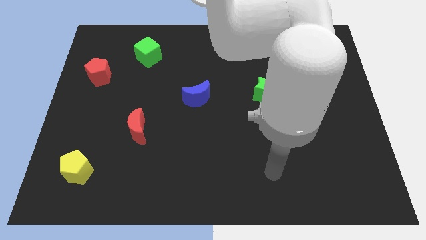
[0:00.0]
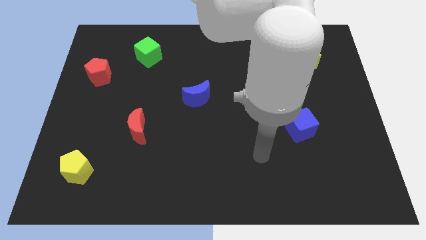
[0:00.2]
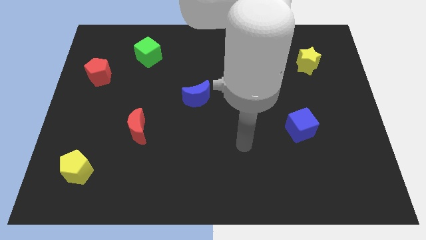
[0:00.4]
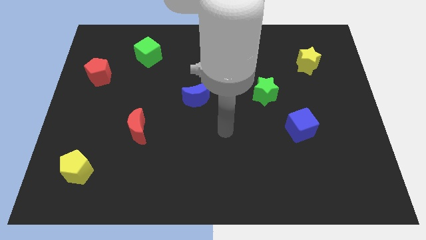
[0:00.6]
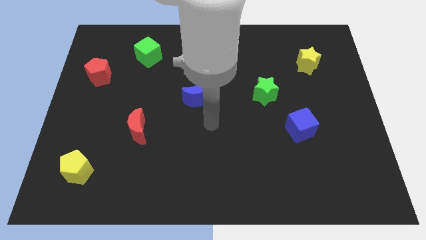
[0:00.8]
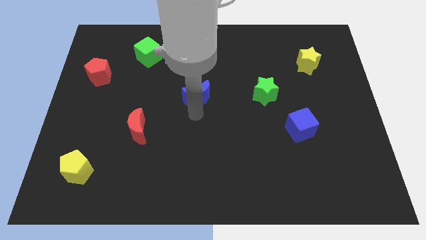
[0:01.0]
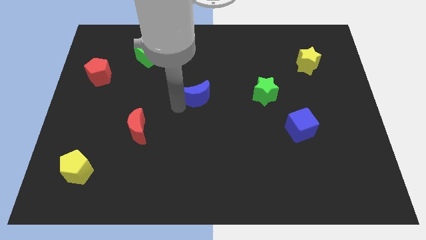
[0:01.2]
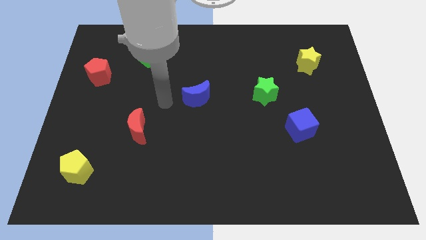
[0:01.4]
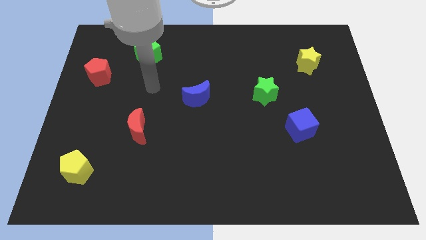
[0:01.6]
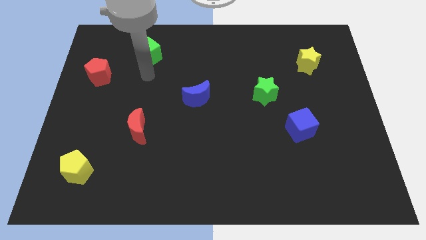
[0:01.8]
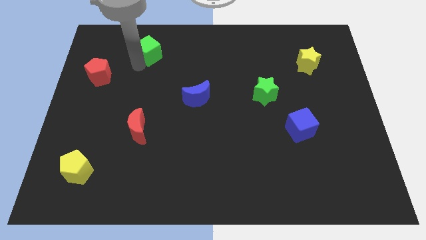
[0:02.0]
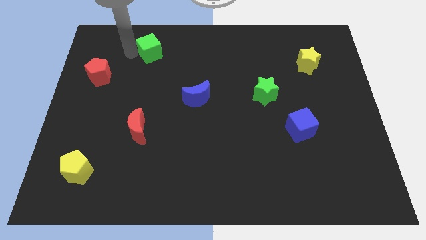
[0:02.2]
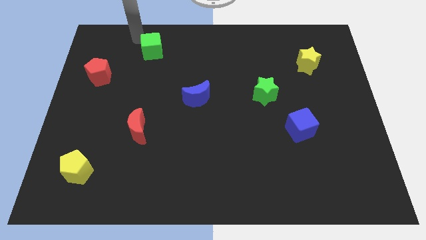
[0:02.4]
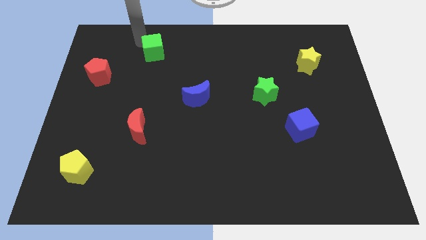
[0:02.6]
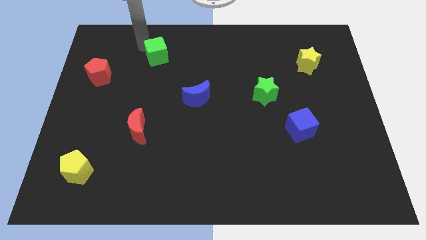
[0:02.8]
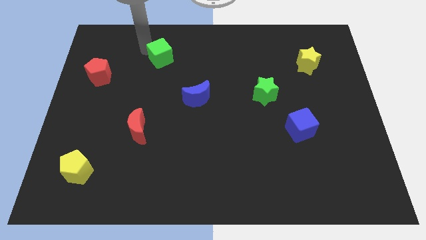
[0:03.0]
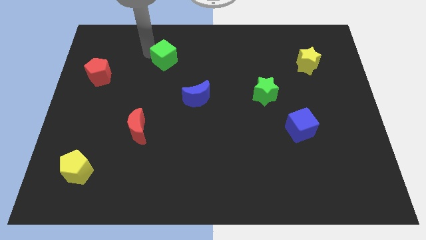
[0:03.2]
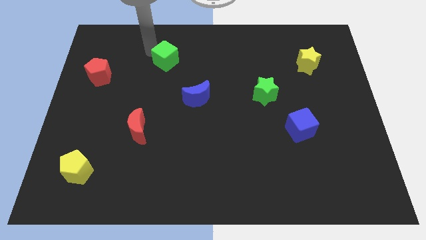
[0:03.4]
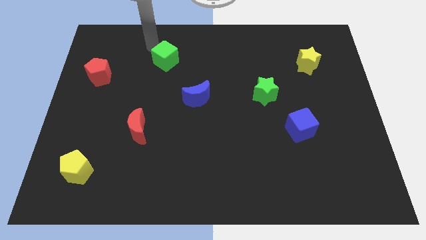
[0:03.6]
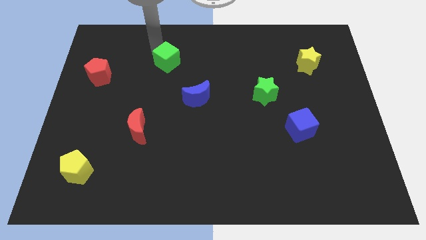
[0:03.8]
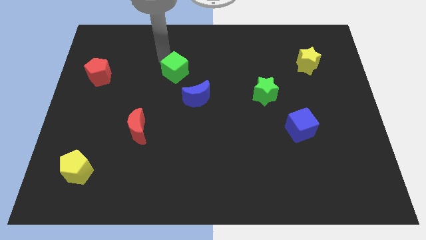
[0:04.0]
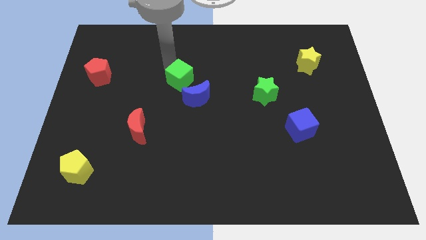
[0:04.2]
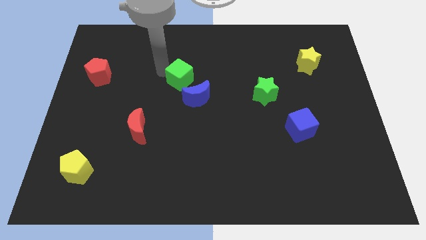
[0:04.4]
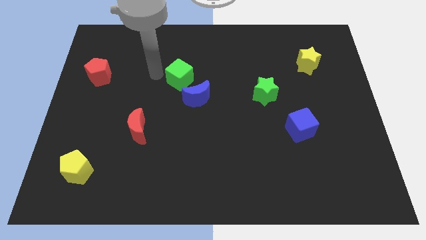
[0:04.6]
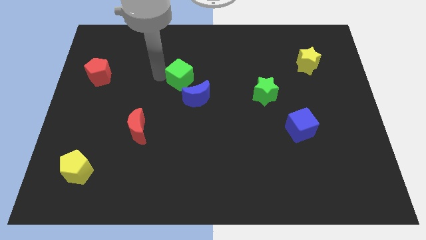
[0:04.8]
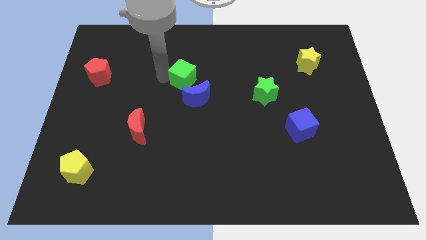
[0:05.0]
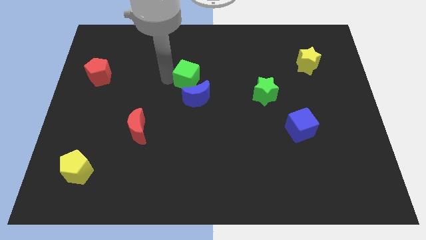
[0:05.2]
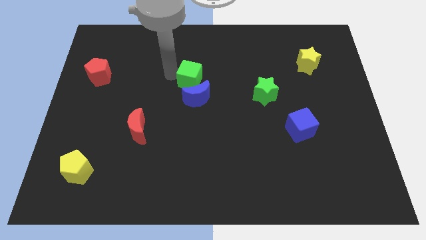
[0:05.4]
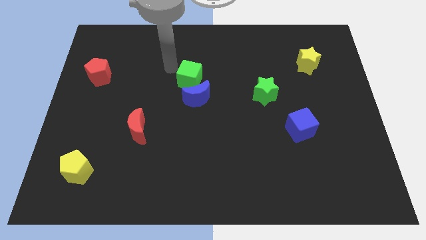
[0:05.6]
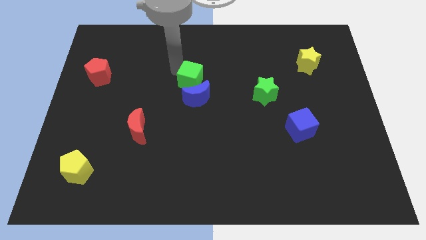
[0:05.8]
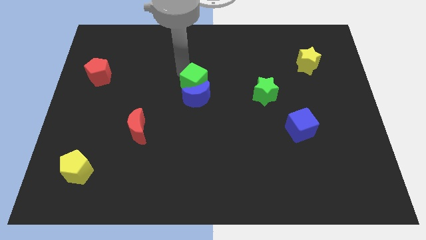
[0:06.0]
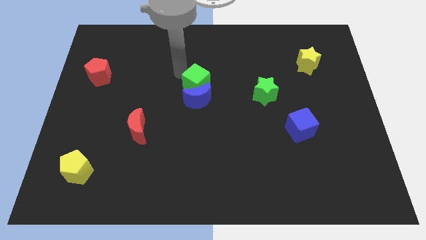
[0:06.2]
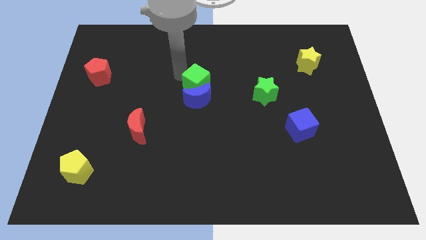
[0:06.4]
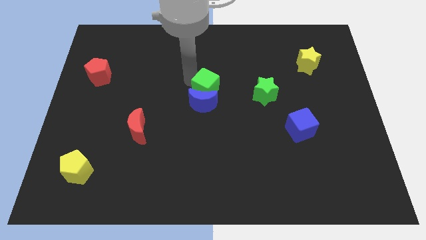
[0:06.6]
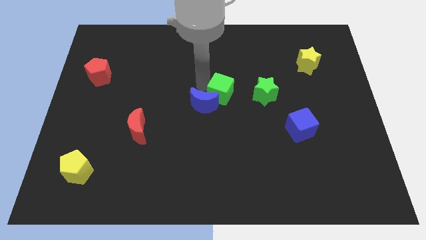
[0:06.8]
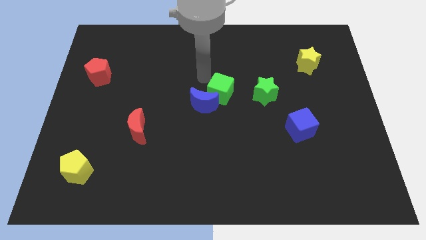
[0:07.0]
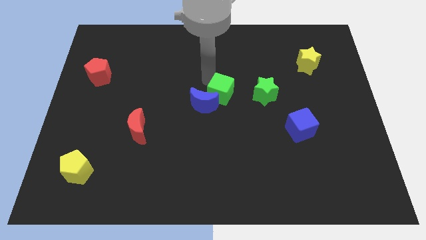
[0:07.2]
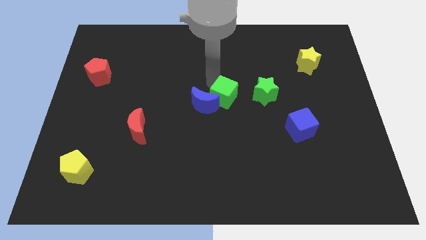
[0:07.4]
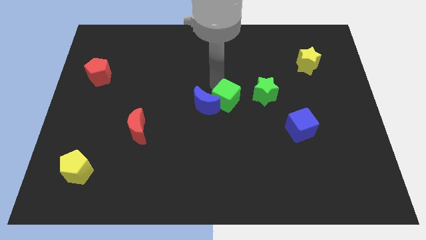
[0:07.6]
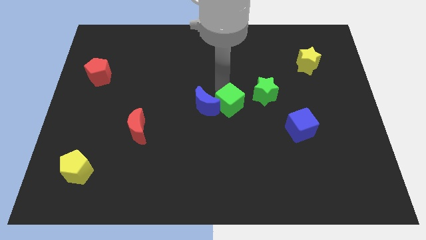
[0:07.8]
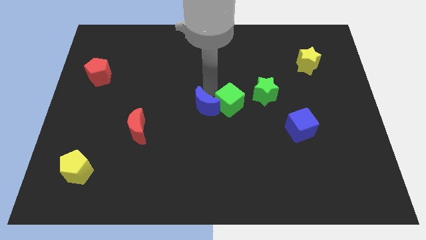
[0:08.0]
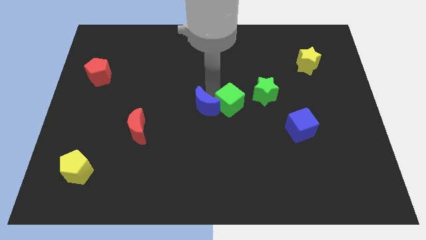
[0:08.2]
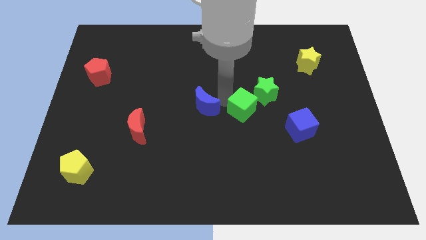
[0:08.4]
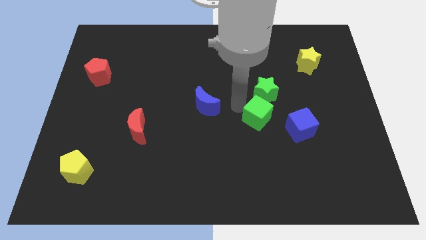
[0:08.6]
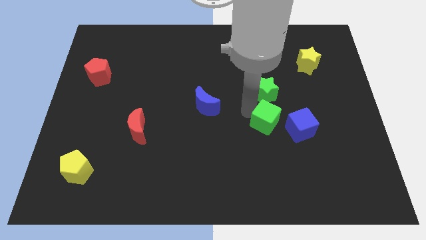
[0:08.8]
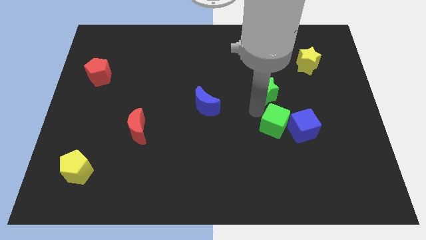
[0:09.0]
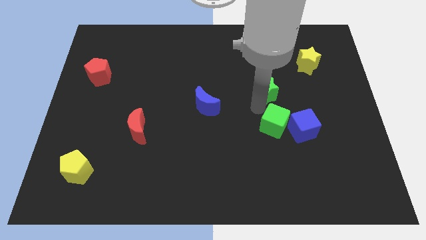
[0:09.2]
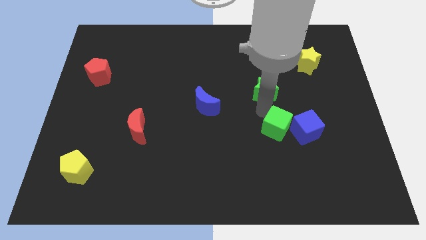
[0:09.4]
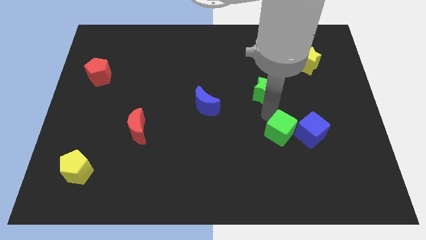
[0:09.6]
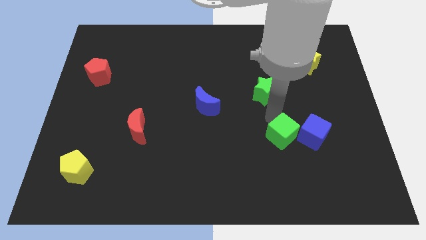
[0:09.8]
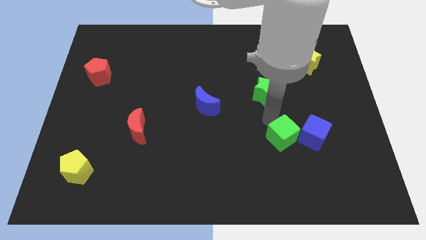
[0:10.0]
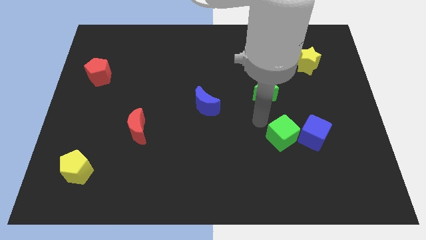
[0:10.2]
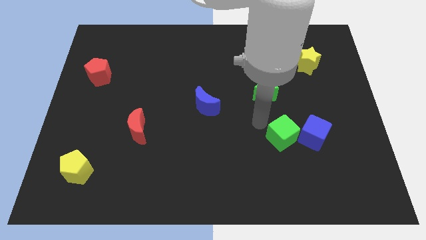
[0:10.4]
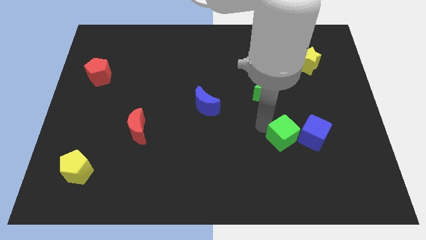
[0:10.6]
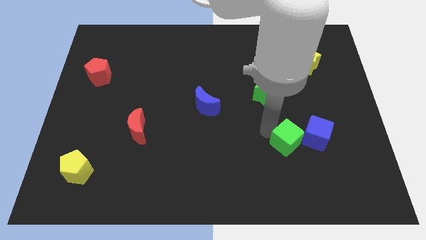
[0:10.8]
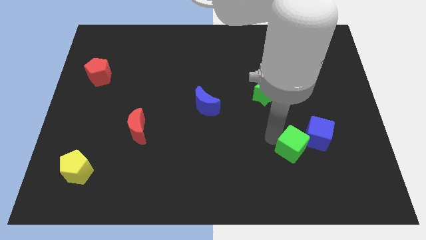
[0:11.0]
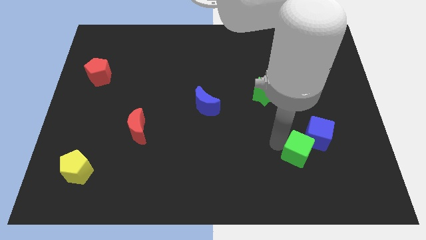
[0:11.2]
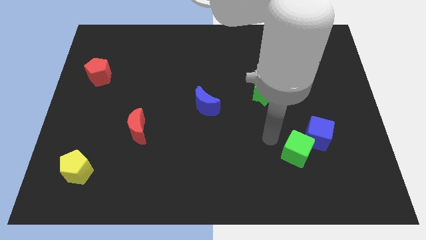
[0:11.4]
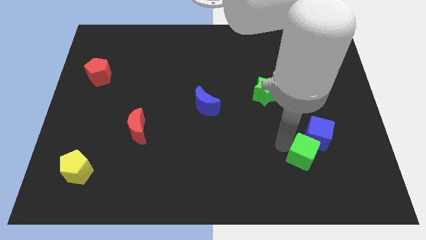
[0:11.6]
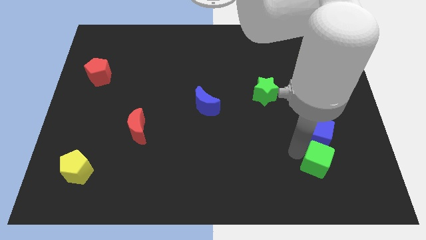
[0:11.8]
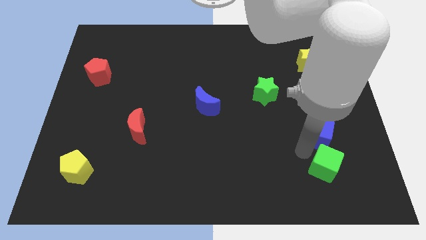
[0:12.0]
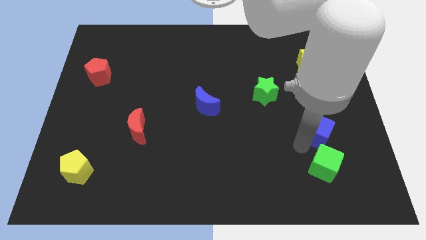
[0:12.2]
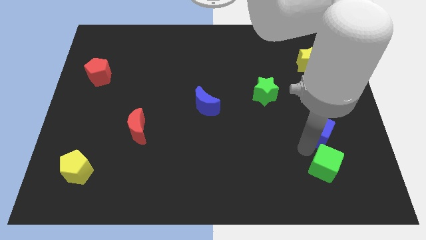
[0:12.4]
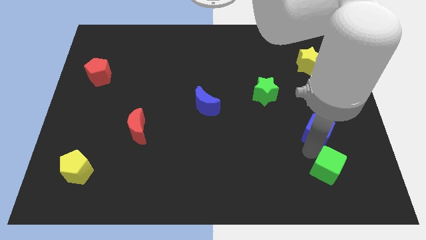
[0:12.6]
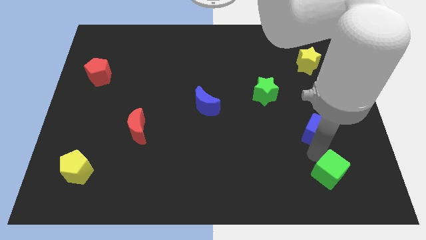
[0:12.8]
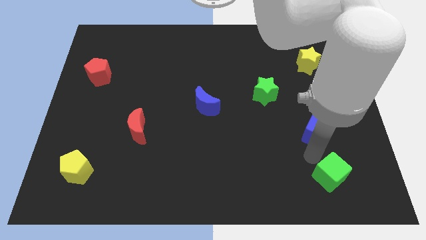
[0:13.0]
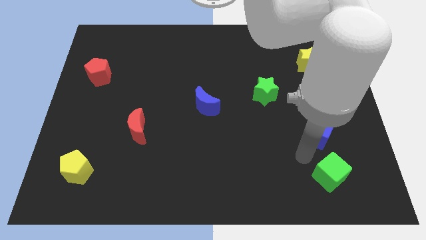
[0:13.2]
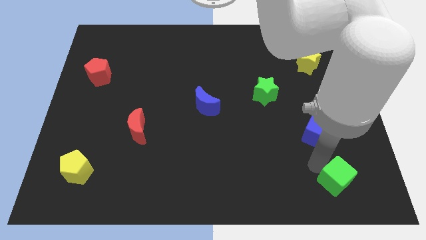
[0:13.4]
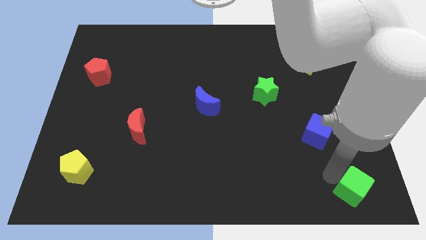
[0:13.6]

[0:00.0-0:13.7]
put the green cube to the bottom right
